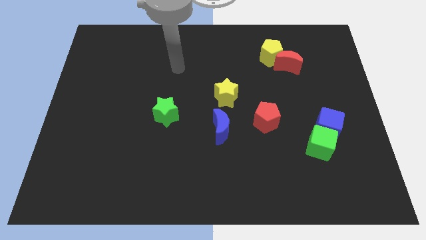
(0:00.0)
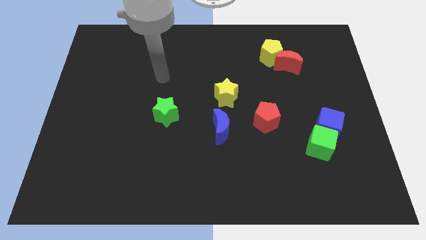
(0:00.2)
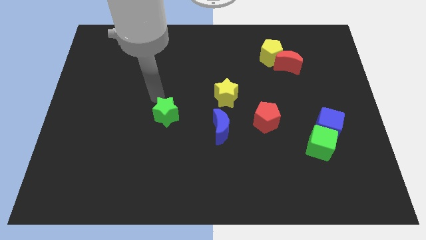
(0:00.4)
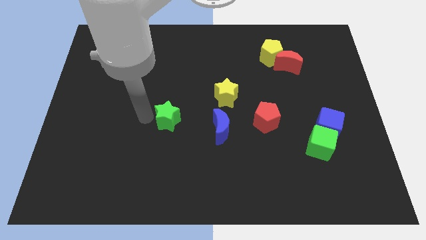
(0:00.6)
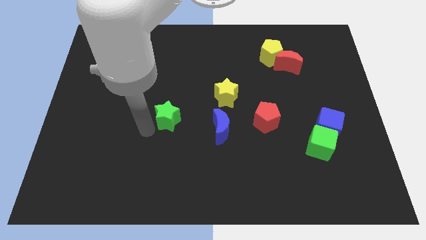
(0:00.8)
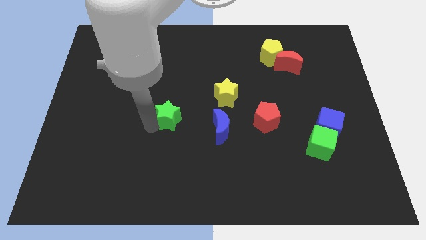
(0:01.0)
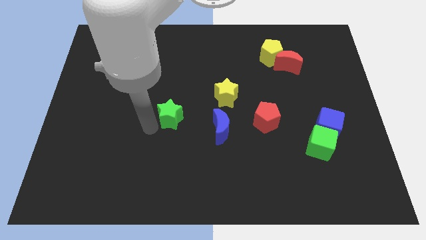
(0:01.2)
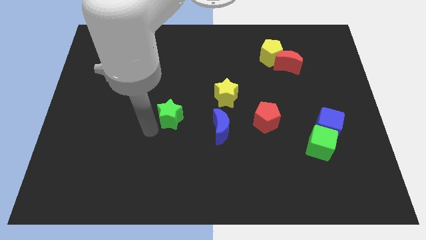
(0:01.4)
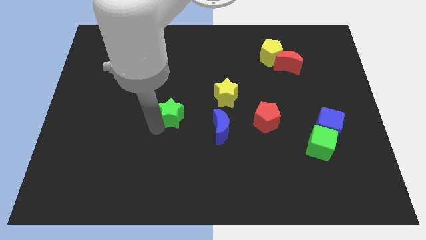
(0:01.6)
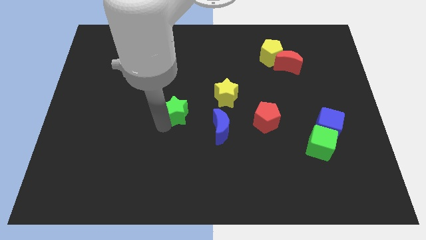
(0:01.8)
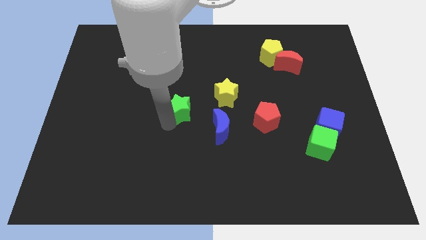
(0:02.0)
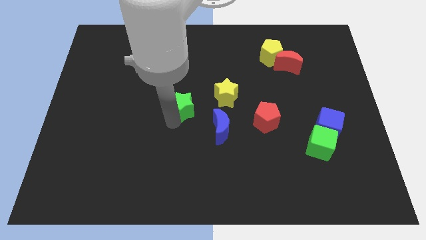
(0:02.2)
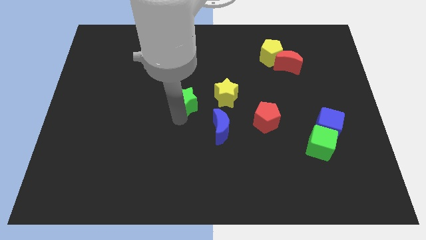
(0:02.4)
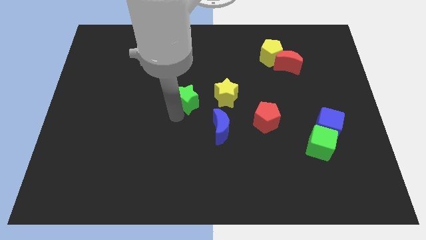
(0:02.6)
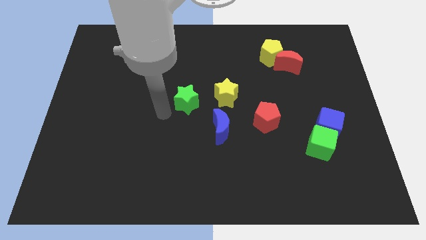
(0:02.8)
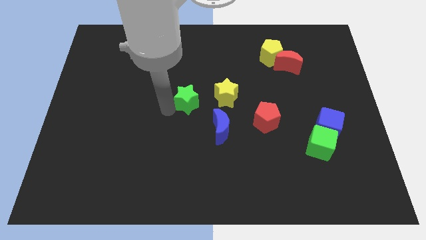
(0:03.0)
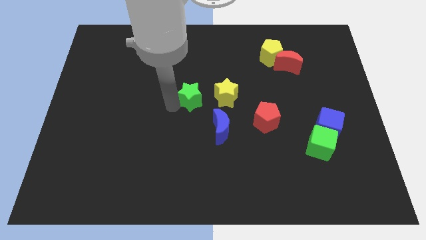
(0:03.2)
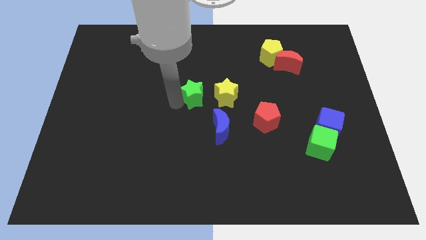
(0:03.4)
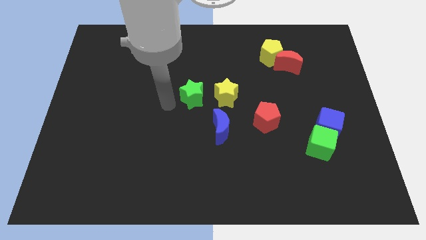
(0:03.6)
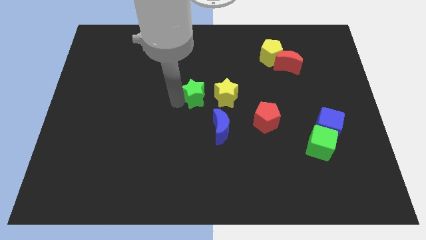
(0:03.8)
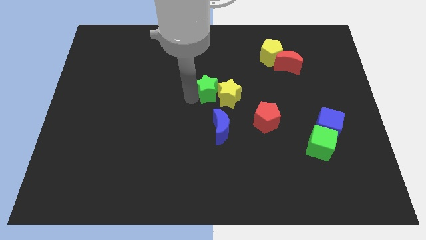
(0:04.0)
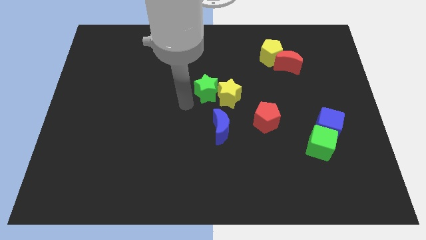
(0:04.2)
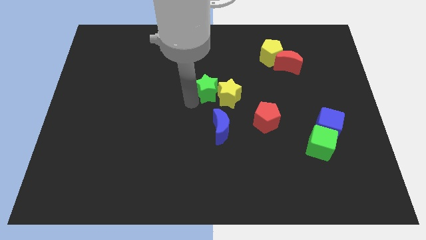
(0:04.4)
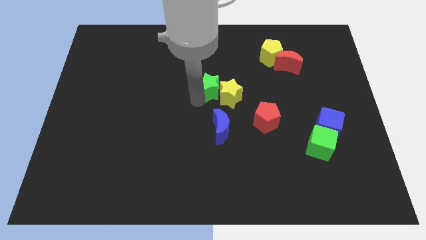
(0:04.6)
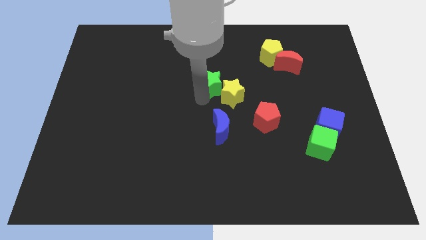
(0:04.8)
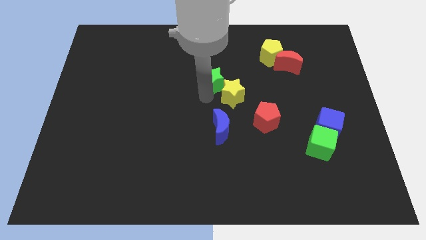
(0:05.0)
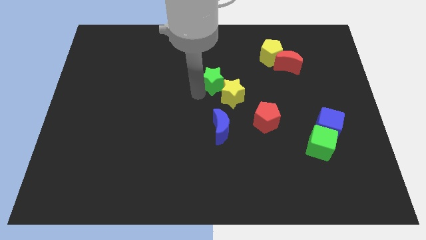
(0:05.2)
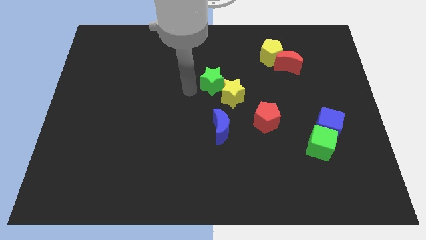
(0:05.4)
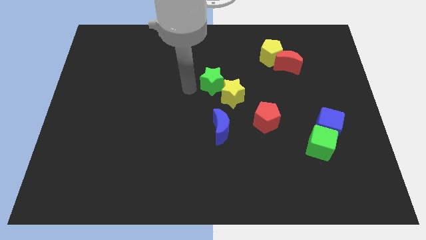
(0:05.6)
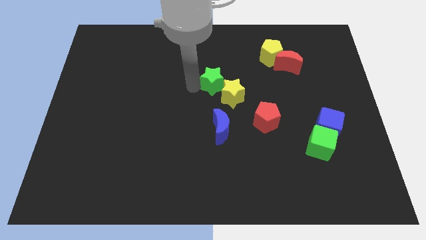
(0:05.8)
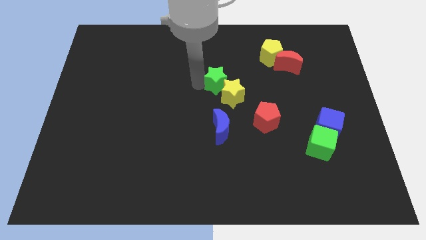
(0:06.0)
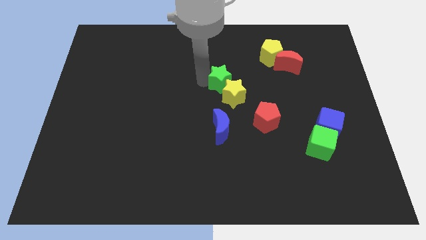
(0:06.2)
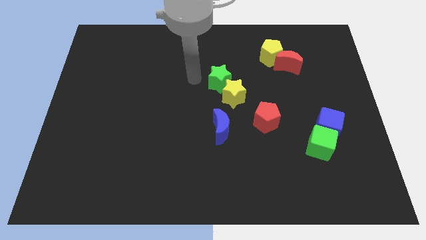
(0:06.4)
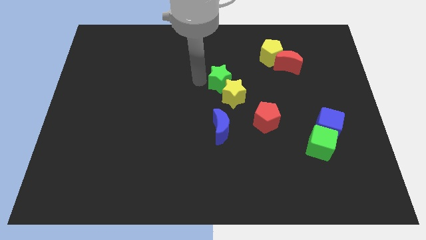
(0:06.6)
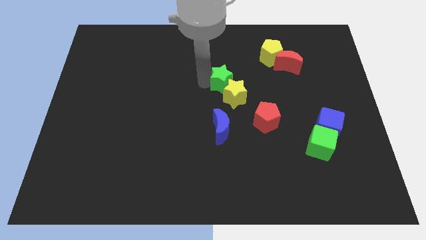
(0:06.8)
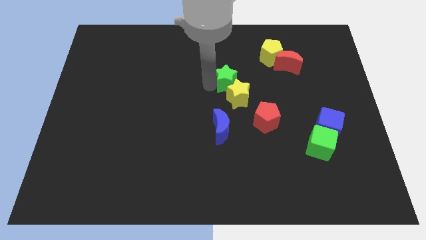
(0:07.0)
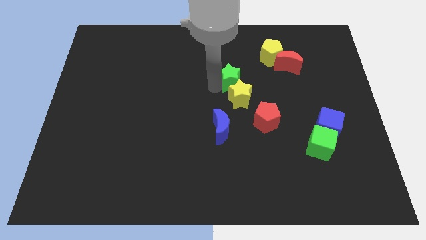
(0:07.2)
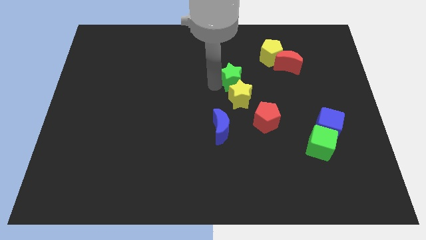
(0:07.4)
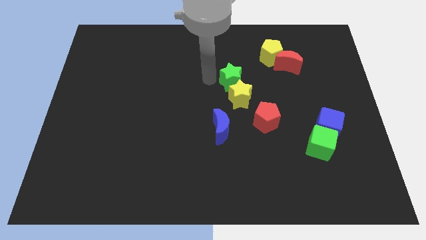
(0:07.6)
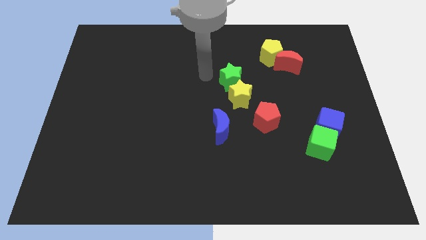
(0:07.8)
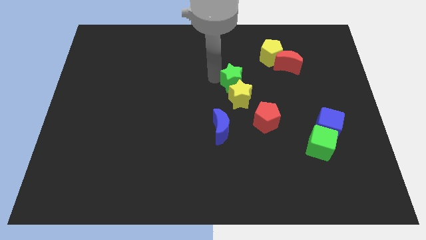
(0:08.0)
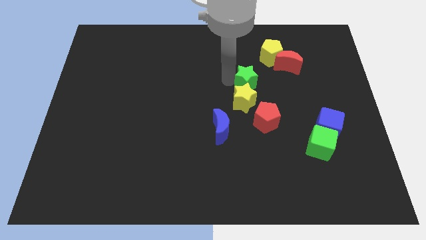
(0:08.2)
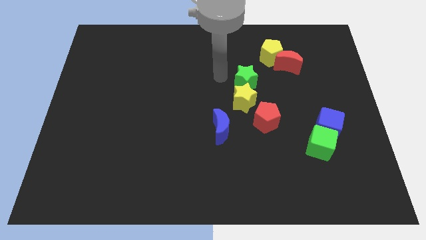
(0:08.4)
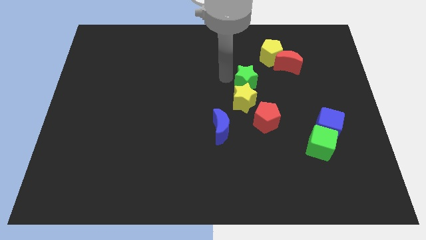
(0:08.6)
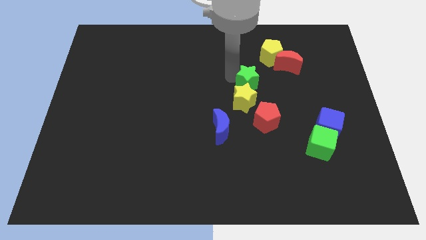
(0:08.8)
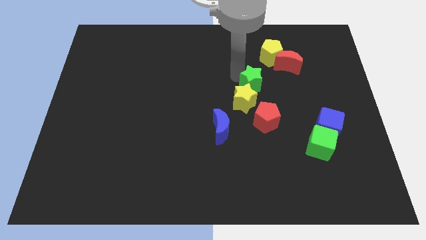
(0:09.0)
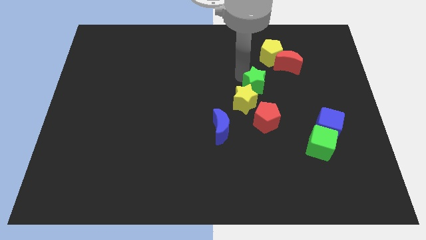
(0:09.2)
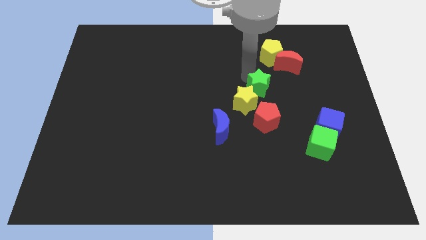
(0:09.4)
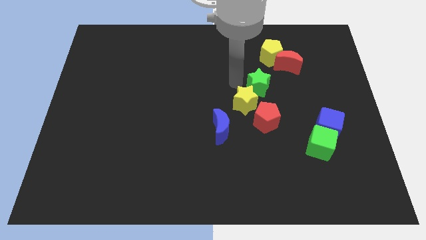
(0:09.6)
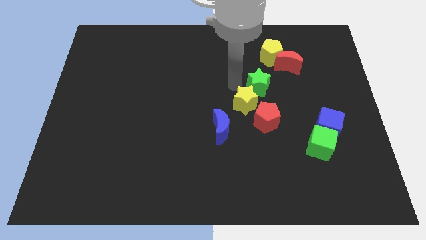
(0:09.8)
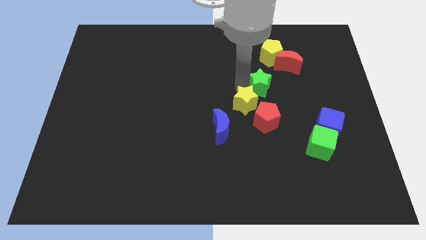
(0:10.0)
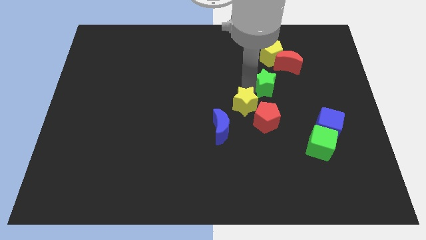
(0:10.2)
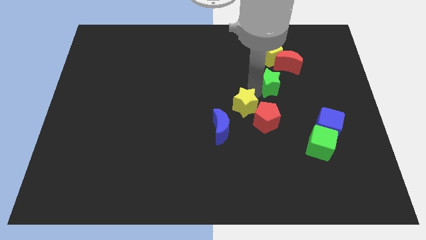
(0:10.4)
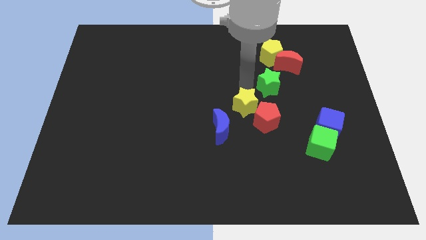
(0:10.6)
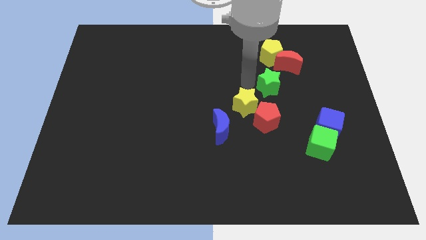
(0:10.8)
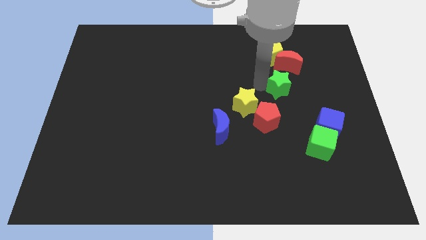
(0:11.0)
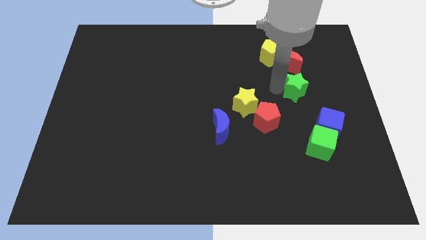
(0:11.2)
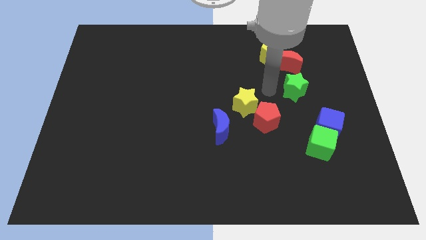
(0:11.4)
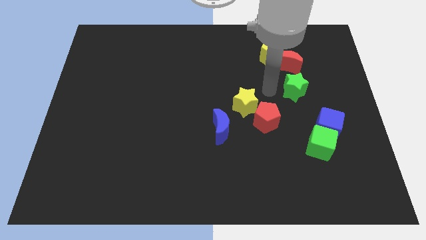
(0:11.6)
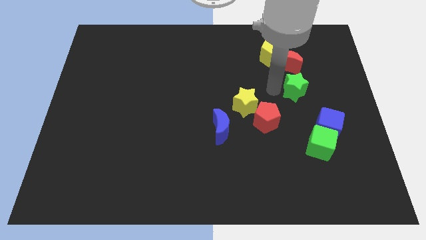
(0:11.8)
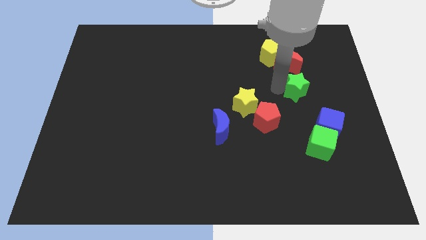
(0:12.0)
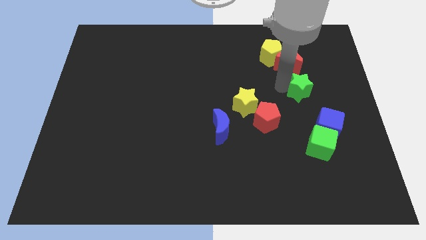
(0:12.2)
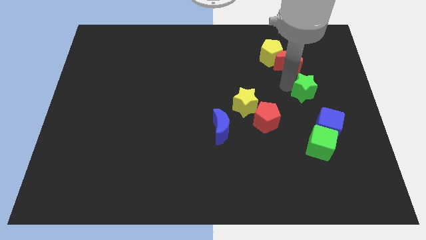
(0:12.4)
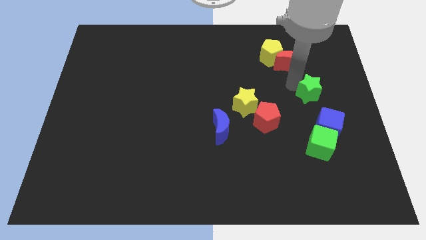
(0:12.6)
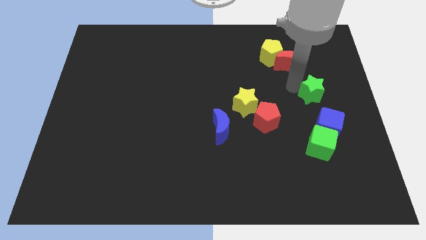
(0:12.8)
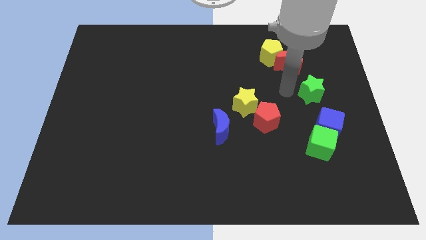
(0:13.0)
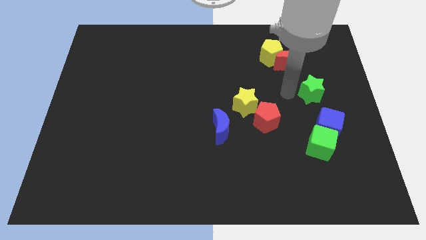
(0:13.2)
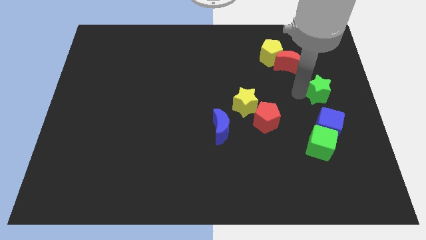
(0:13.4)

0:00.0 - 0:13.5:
push the green star to the center right
